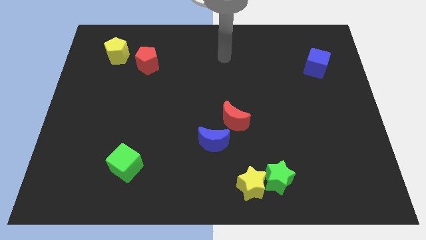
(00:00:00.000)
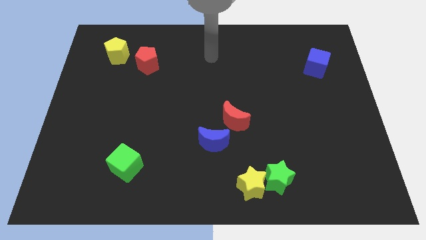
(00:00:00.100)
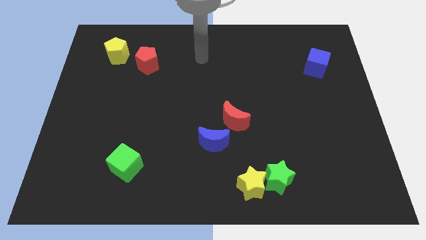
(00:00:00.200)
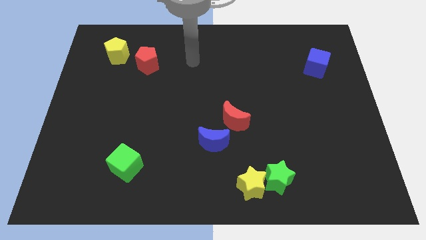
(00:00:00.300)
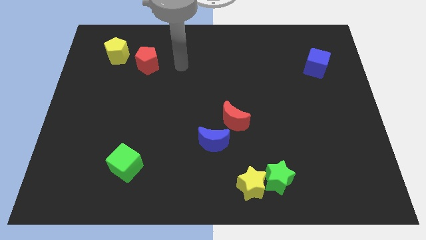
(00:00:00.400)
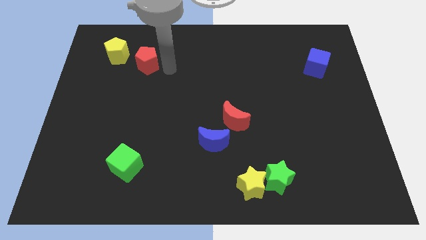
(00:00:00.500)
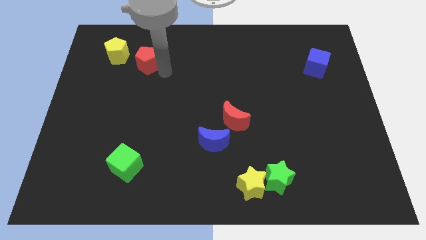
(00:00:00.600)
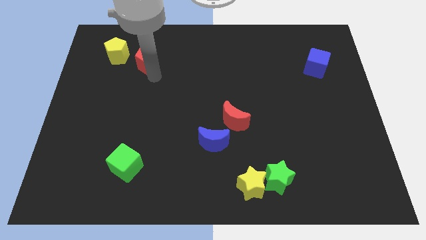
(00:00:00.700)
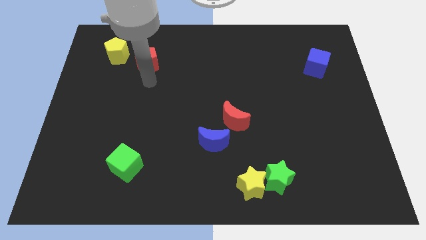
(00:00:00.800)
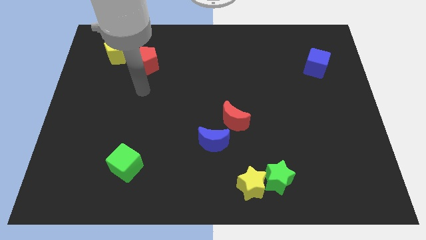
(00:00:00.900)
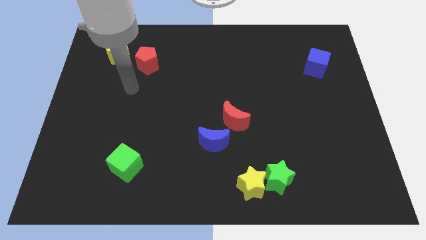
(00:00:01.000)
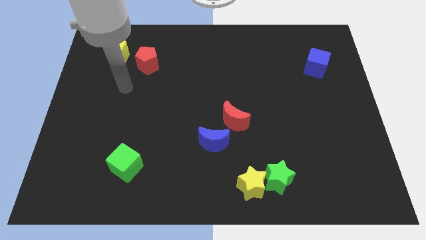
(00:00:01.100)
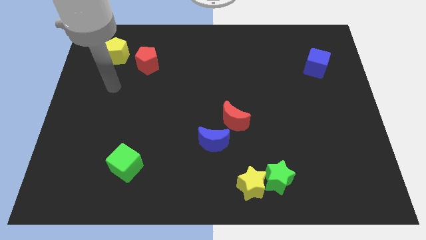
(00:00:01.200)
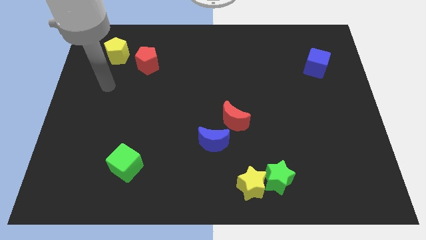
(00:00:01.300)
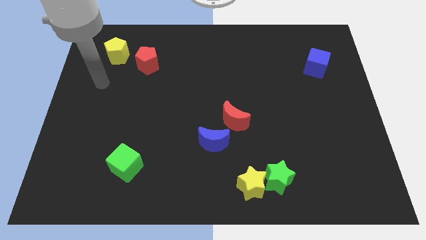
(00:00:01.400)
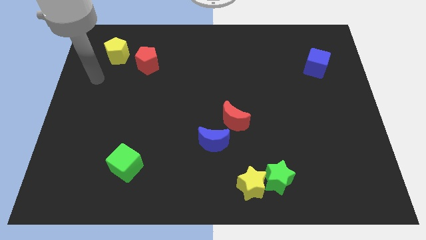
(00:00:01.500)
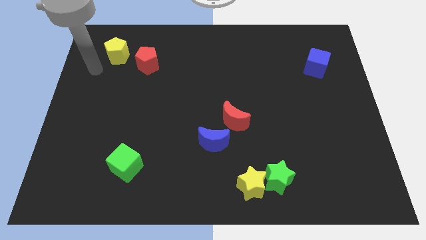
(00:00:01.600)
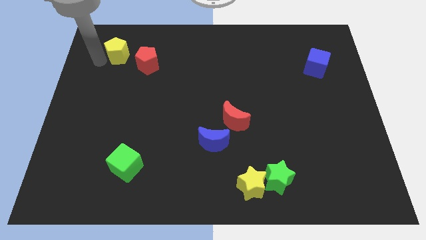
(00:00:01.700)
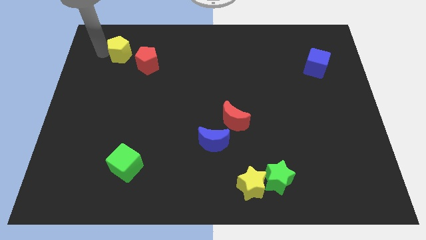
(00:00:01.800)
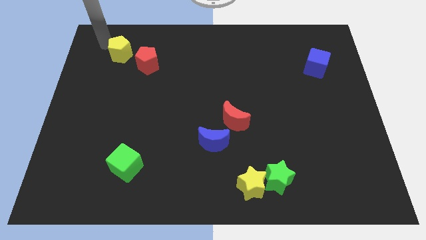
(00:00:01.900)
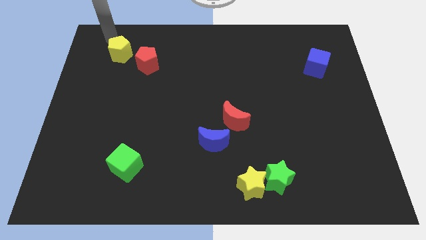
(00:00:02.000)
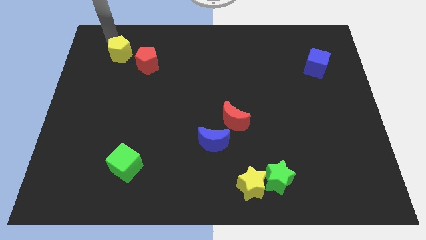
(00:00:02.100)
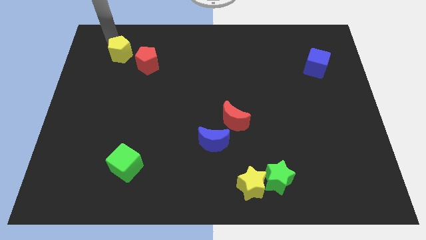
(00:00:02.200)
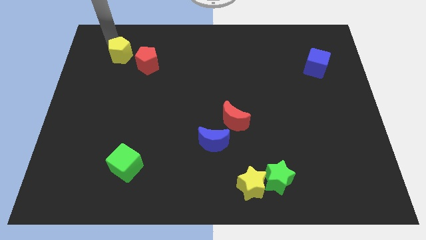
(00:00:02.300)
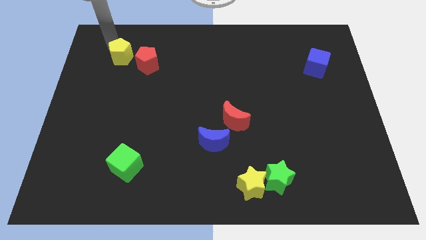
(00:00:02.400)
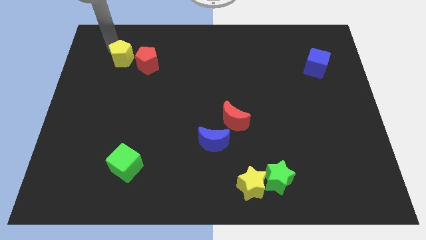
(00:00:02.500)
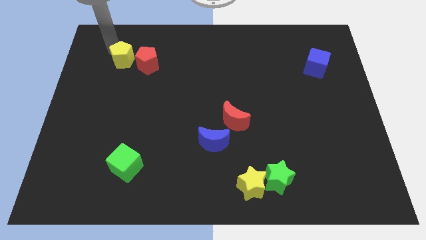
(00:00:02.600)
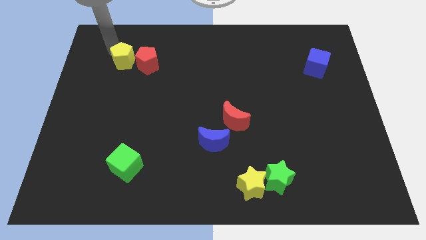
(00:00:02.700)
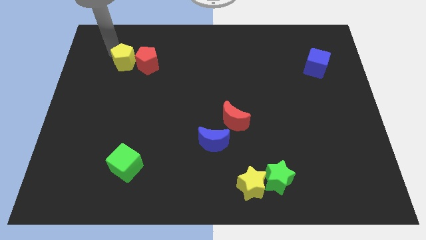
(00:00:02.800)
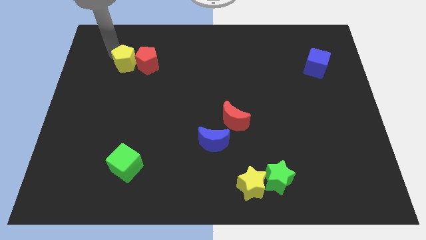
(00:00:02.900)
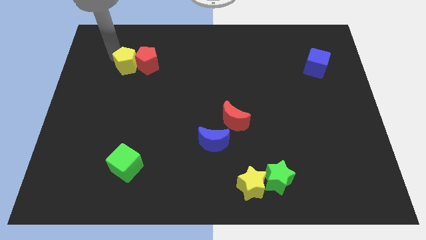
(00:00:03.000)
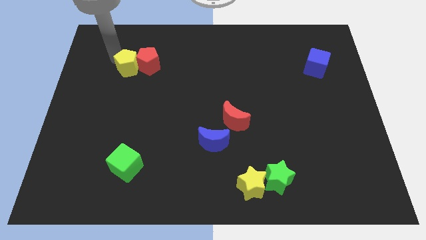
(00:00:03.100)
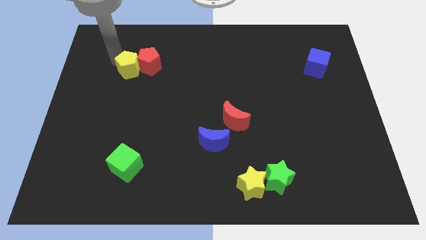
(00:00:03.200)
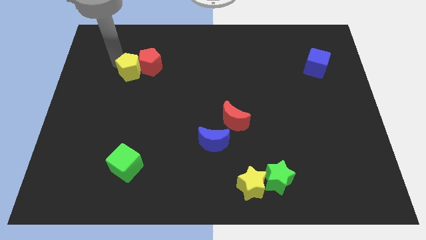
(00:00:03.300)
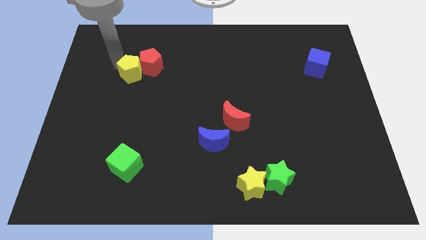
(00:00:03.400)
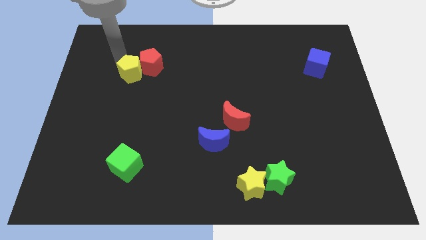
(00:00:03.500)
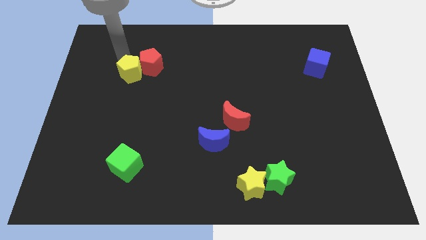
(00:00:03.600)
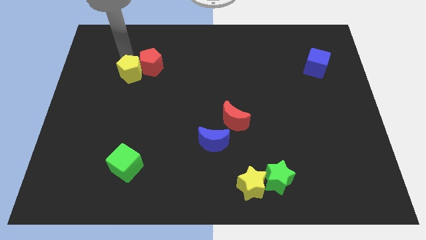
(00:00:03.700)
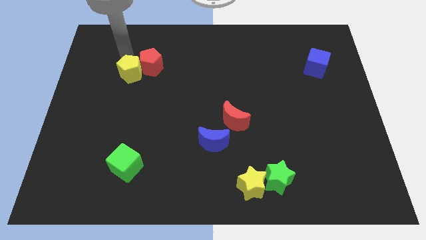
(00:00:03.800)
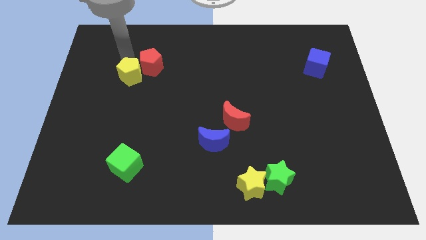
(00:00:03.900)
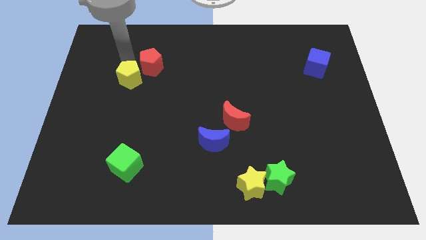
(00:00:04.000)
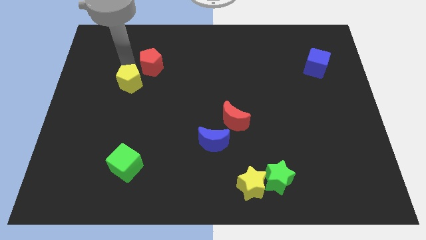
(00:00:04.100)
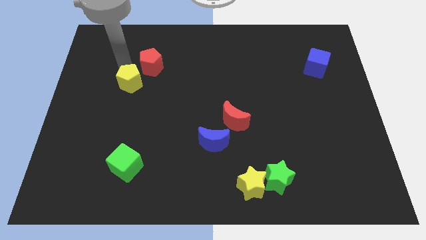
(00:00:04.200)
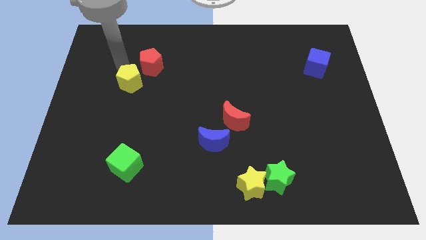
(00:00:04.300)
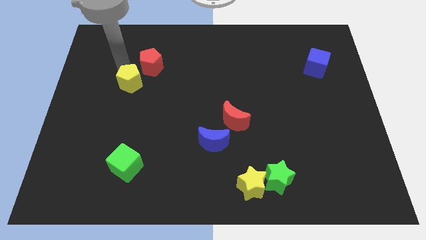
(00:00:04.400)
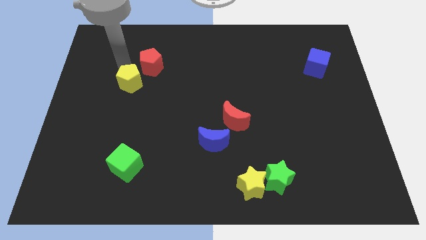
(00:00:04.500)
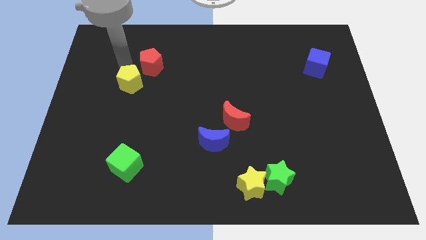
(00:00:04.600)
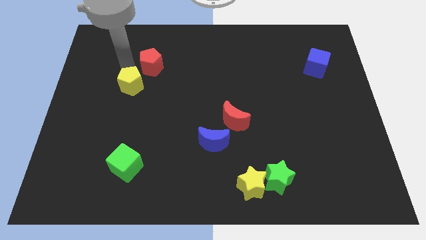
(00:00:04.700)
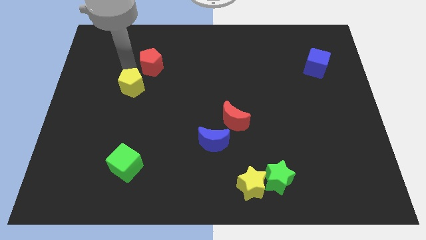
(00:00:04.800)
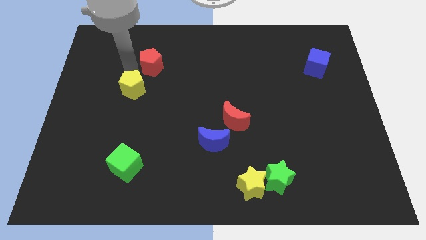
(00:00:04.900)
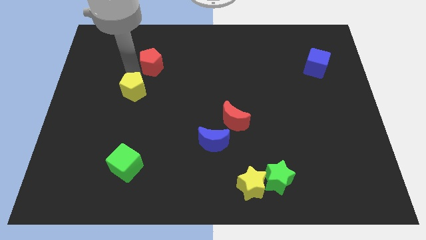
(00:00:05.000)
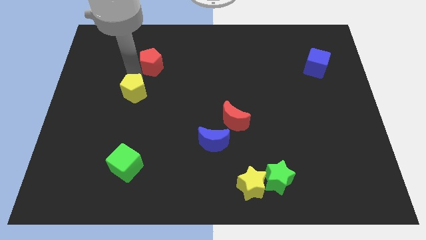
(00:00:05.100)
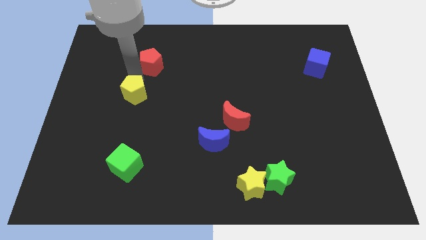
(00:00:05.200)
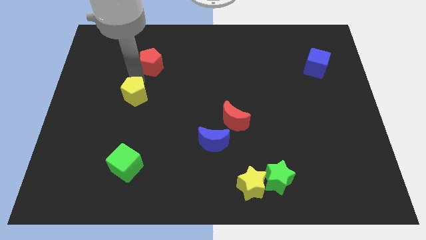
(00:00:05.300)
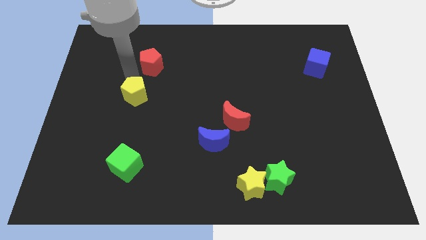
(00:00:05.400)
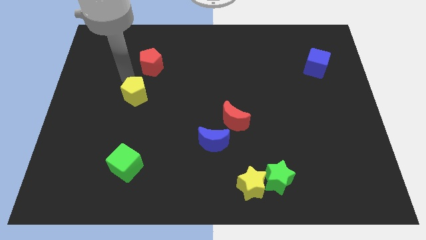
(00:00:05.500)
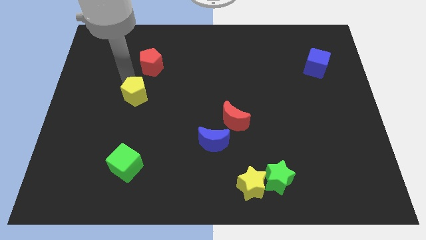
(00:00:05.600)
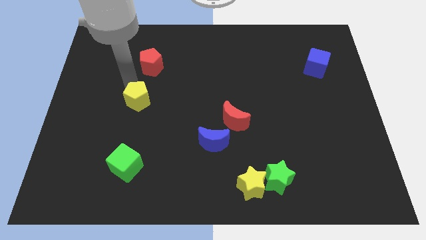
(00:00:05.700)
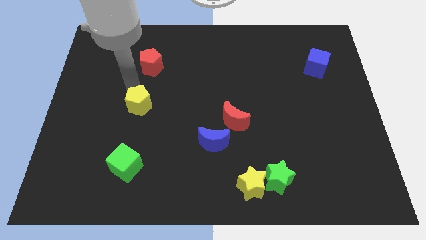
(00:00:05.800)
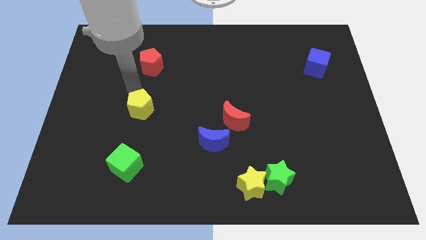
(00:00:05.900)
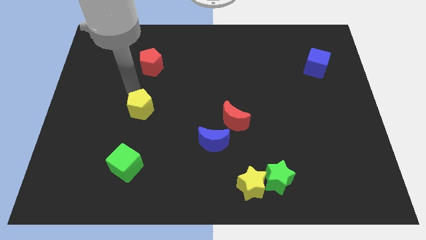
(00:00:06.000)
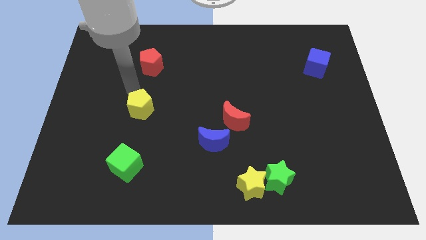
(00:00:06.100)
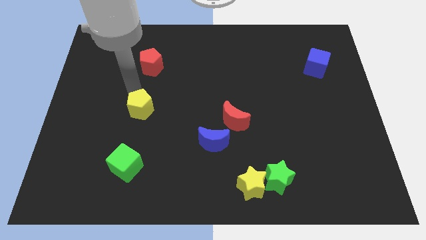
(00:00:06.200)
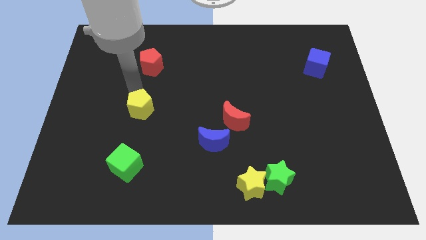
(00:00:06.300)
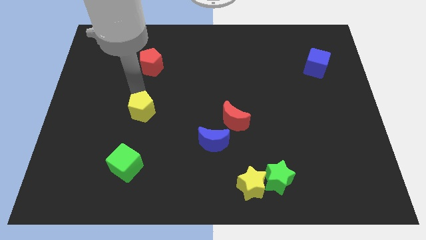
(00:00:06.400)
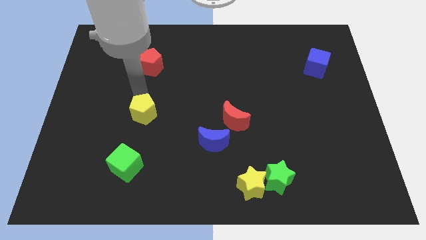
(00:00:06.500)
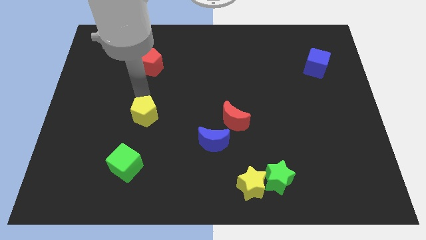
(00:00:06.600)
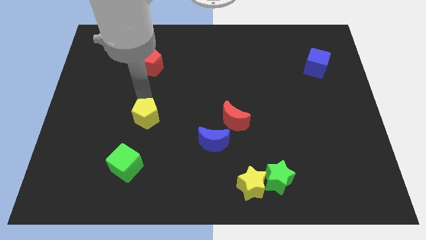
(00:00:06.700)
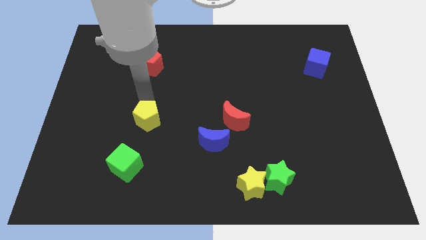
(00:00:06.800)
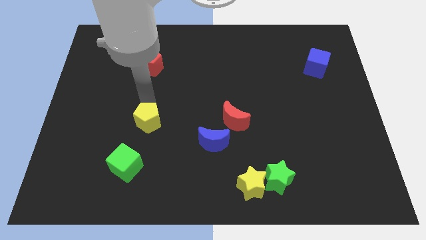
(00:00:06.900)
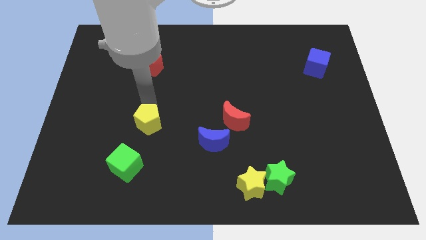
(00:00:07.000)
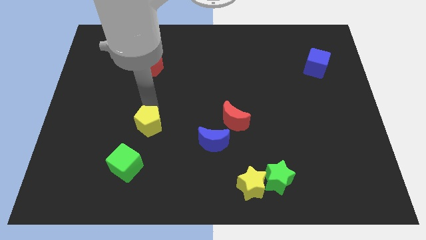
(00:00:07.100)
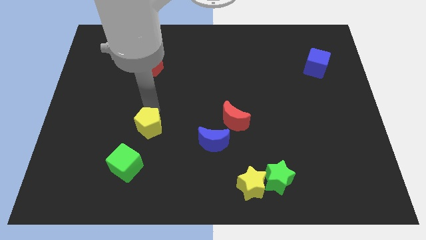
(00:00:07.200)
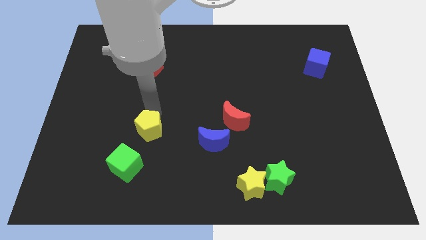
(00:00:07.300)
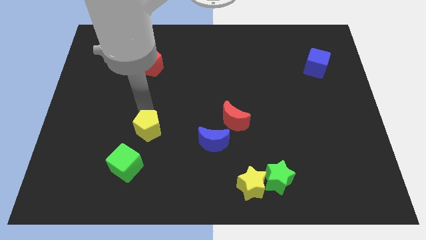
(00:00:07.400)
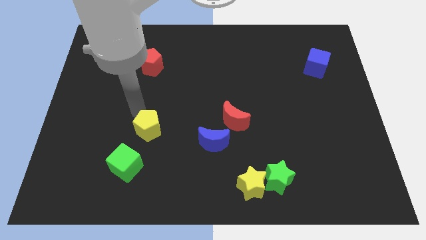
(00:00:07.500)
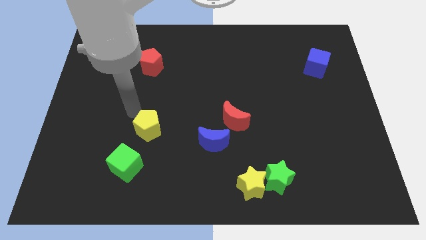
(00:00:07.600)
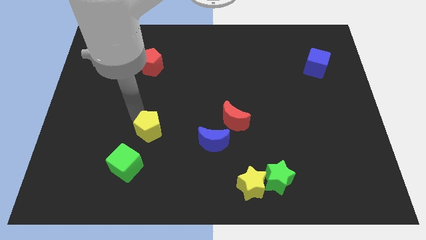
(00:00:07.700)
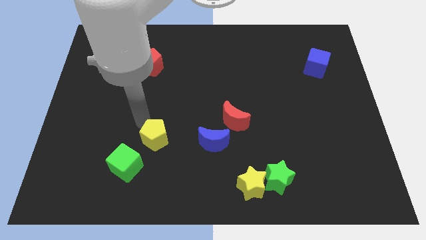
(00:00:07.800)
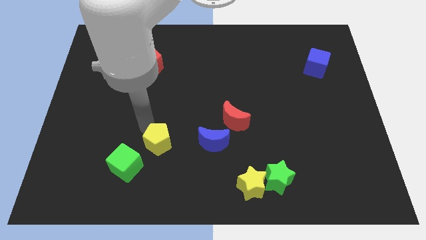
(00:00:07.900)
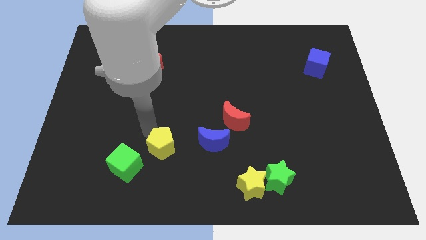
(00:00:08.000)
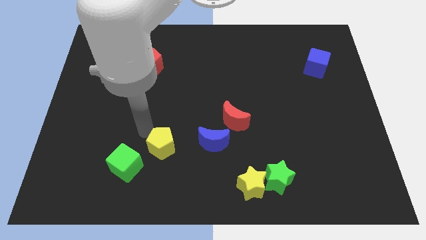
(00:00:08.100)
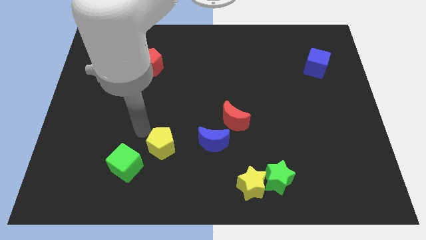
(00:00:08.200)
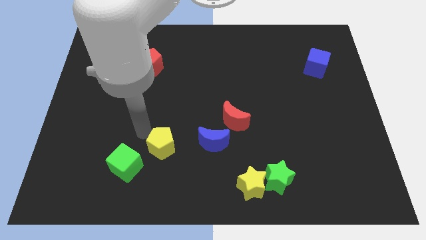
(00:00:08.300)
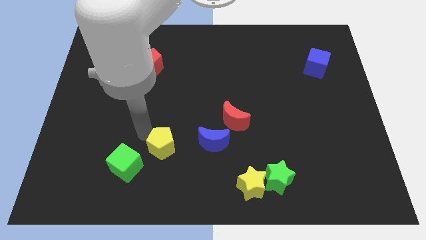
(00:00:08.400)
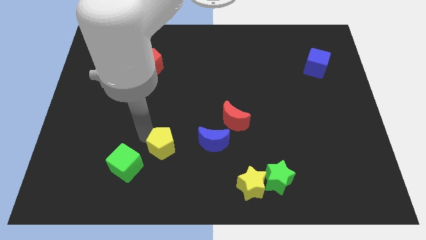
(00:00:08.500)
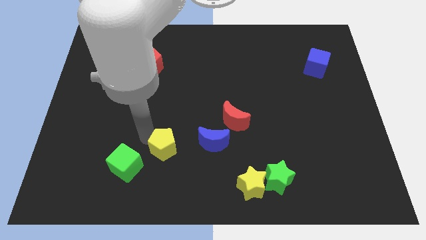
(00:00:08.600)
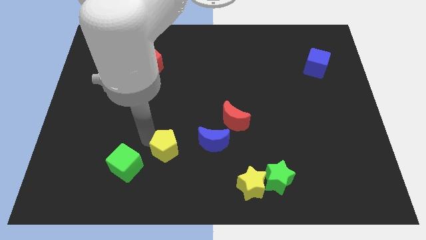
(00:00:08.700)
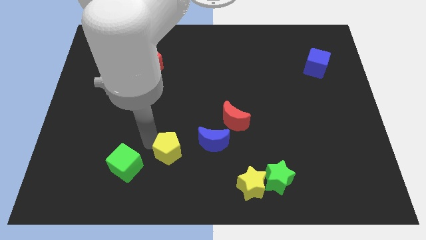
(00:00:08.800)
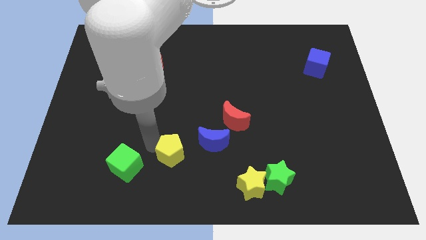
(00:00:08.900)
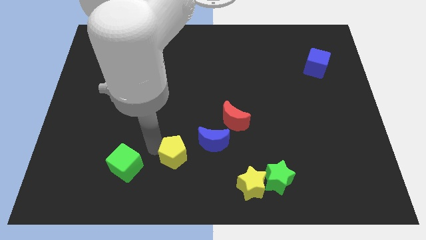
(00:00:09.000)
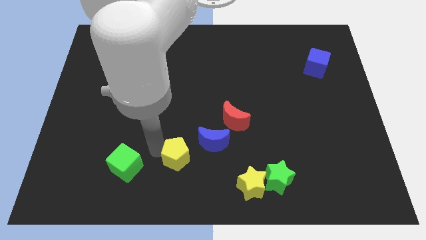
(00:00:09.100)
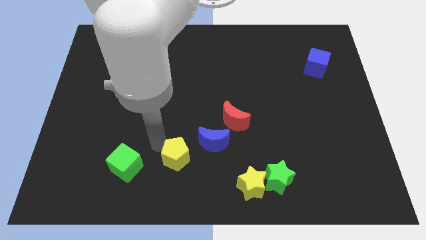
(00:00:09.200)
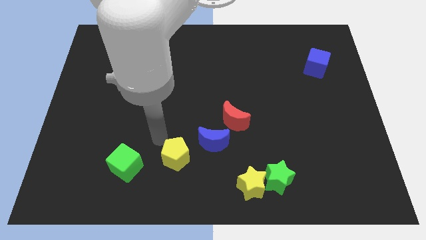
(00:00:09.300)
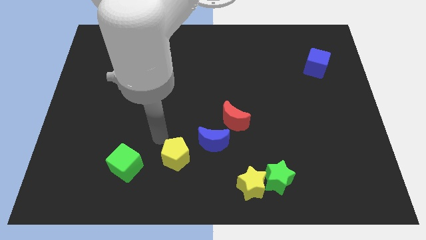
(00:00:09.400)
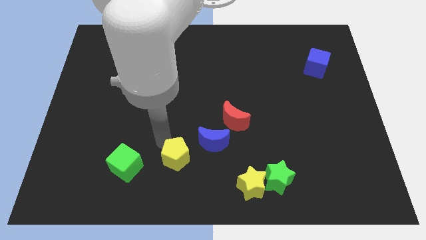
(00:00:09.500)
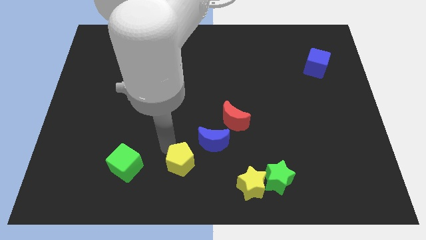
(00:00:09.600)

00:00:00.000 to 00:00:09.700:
push the yellow pentagon to the bottom
